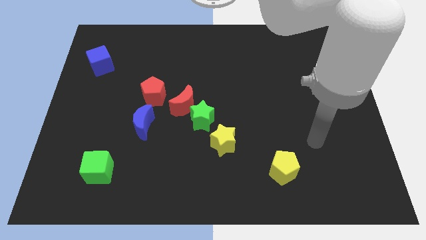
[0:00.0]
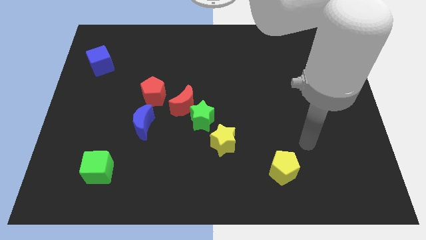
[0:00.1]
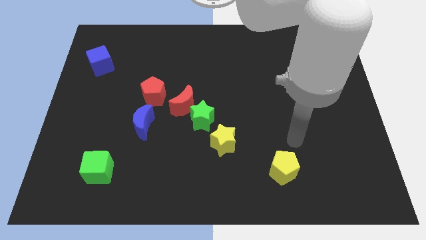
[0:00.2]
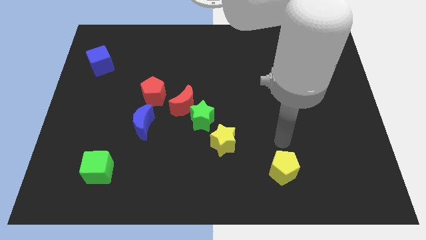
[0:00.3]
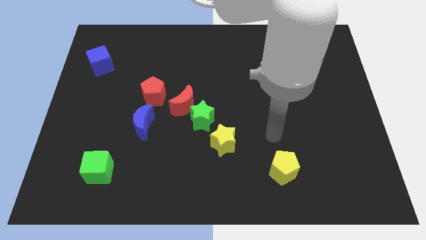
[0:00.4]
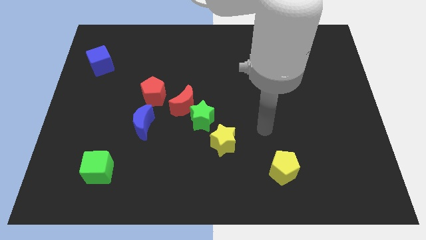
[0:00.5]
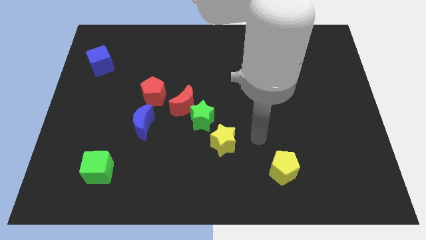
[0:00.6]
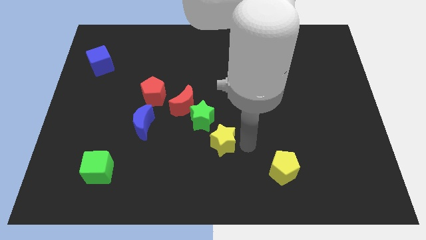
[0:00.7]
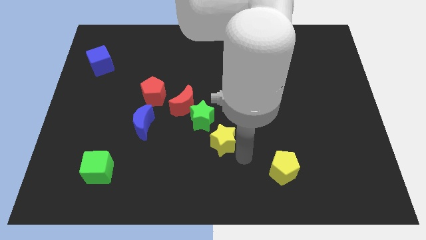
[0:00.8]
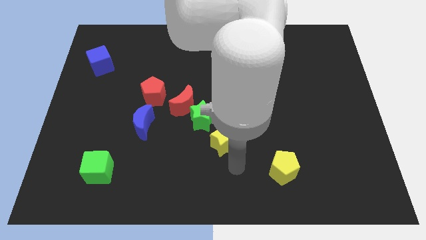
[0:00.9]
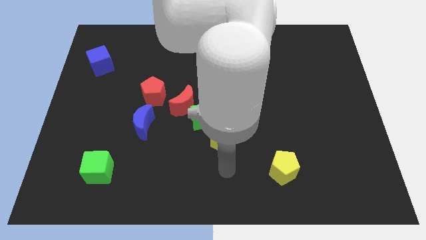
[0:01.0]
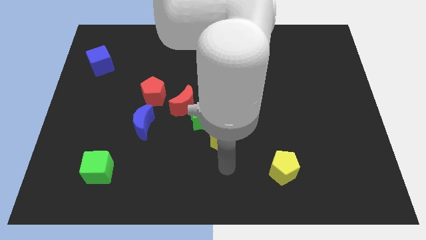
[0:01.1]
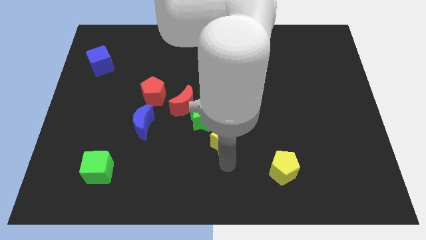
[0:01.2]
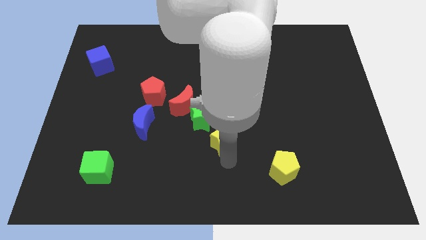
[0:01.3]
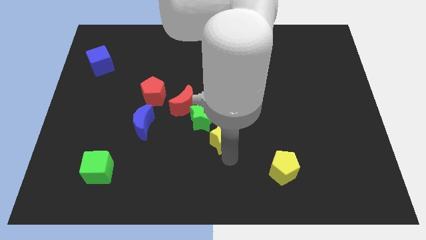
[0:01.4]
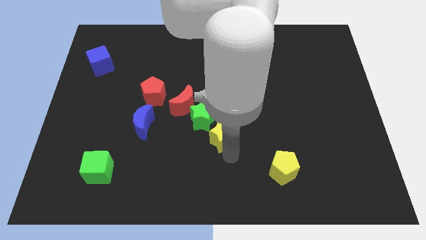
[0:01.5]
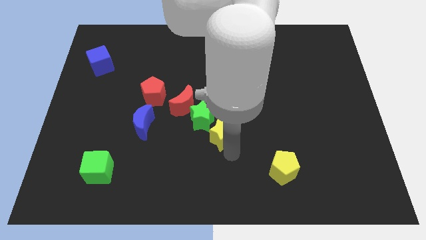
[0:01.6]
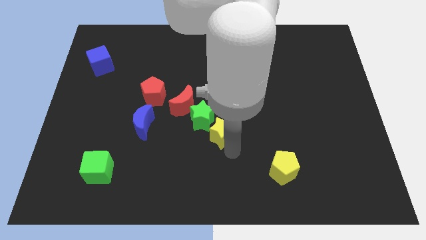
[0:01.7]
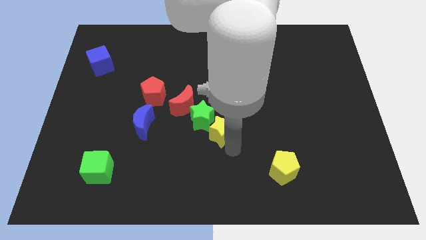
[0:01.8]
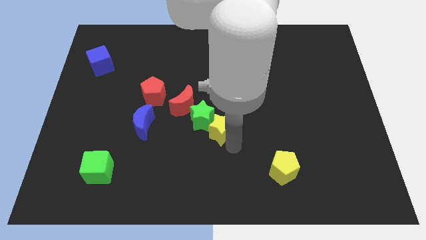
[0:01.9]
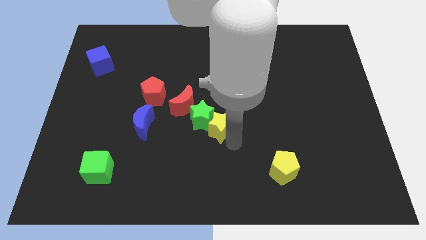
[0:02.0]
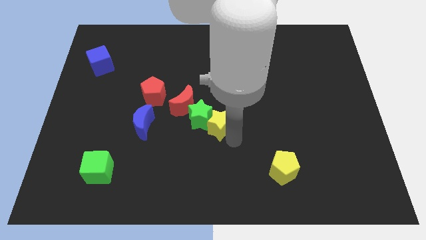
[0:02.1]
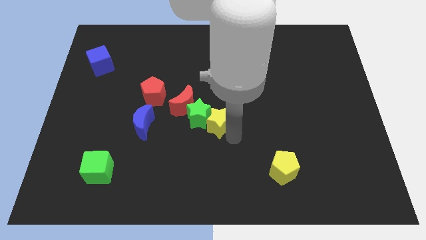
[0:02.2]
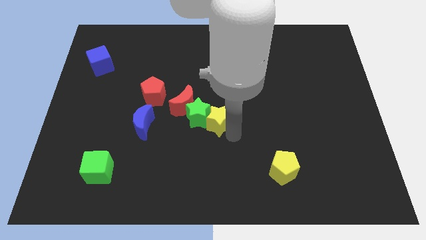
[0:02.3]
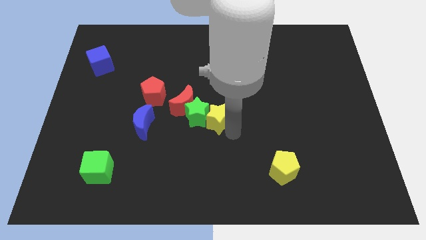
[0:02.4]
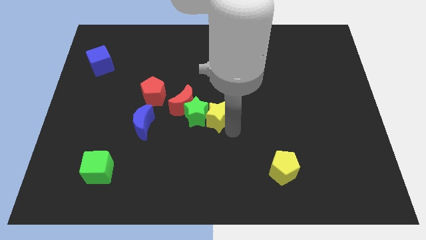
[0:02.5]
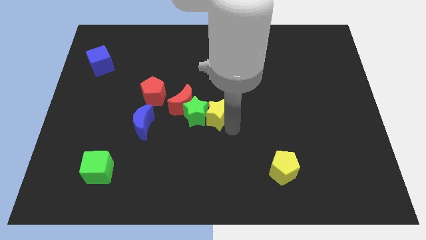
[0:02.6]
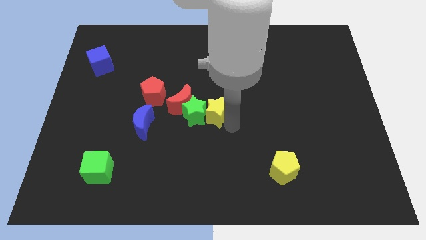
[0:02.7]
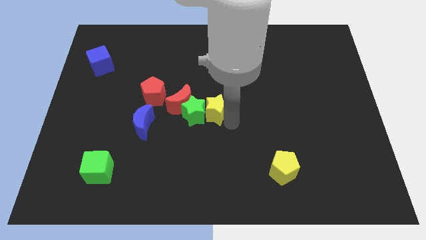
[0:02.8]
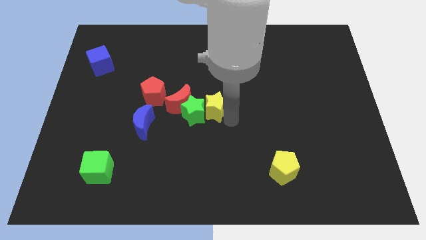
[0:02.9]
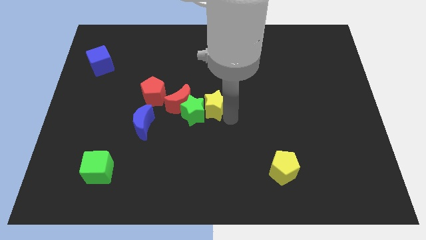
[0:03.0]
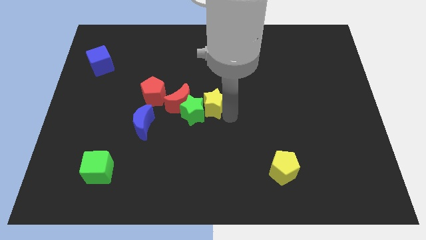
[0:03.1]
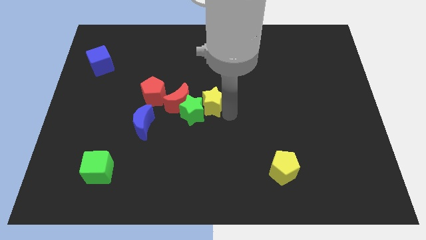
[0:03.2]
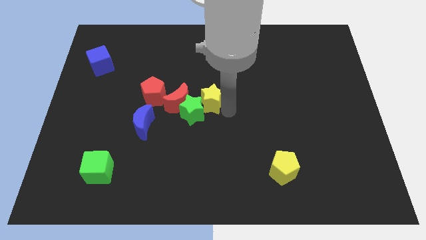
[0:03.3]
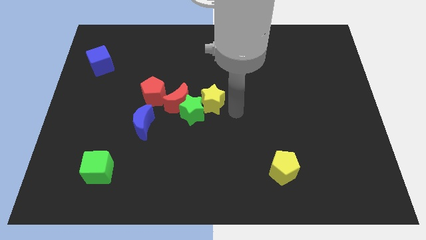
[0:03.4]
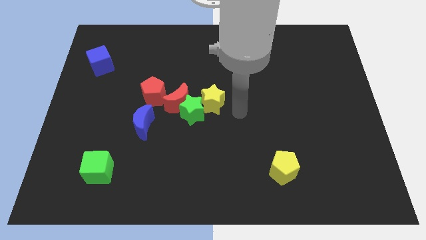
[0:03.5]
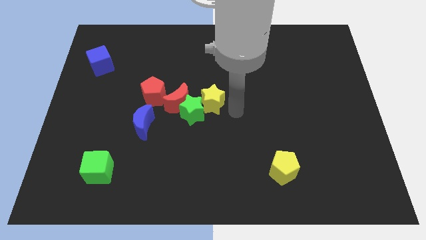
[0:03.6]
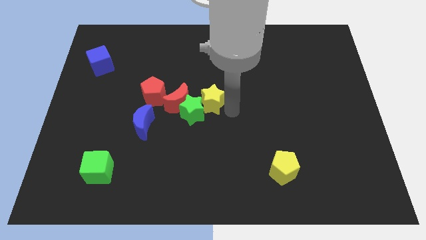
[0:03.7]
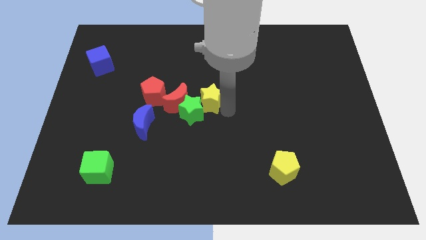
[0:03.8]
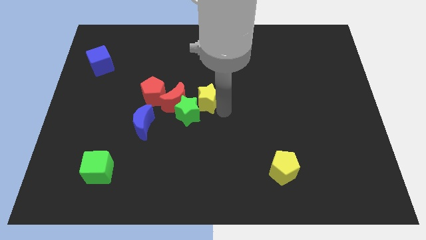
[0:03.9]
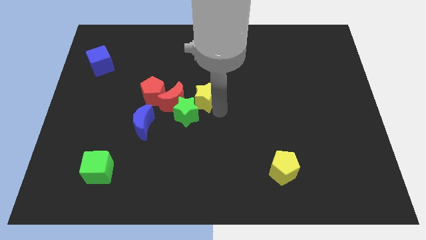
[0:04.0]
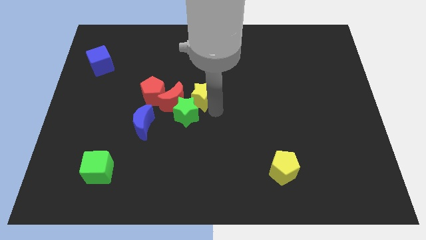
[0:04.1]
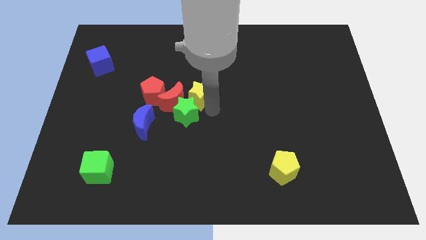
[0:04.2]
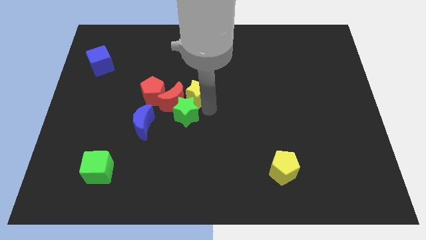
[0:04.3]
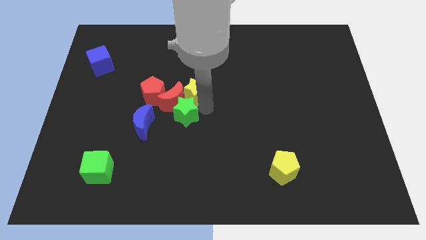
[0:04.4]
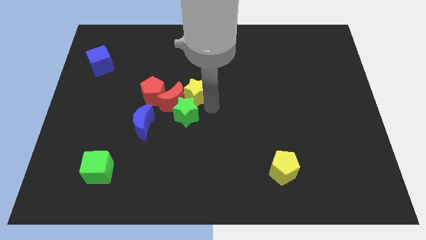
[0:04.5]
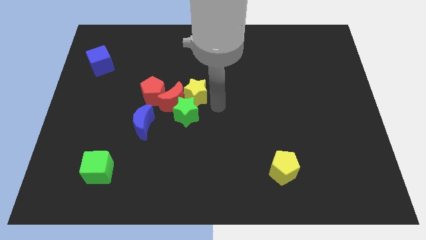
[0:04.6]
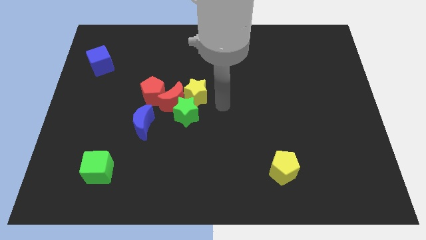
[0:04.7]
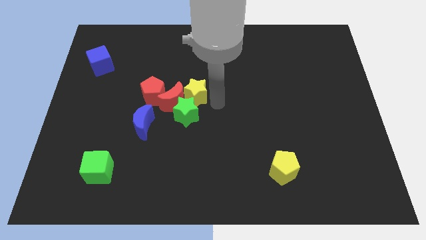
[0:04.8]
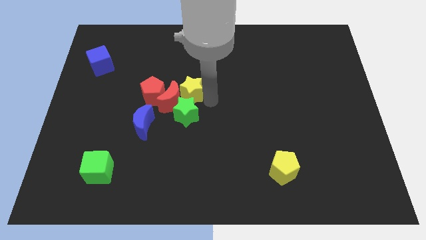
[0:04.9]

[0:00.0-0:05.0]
slide the yellow star diagonally up and to the left of the green star

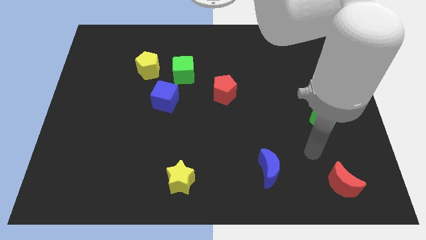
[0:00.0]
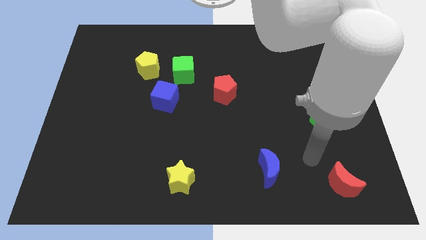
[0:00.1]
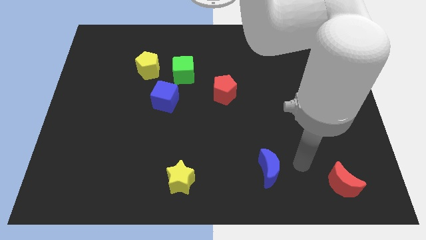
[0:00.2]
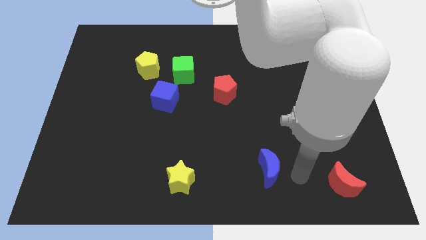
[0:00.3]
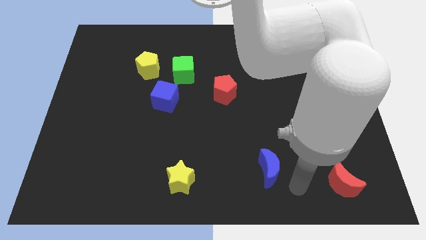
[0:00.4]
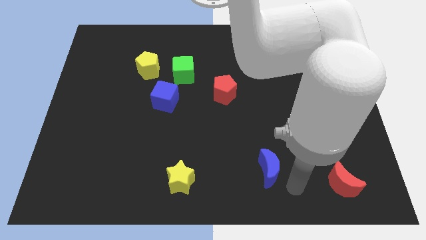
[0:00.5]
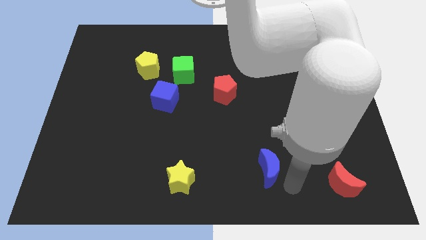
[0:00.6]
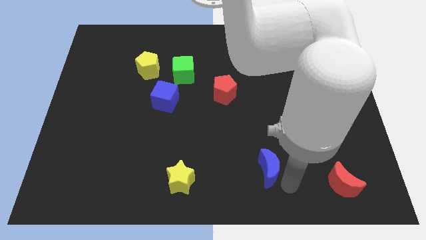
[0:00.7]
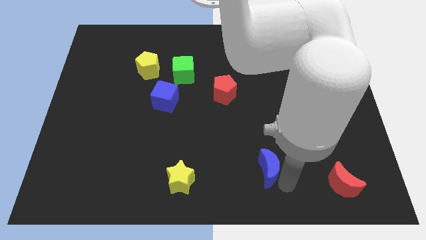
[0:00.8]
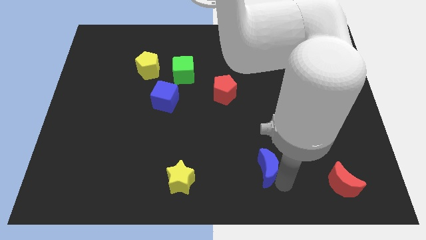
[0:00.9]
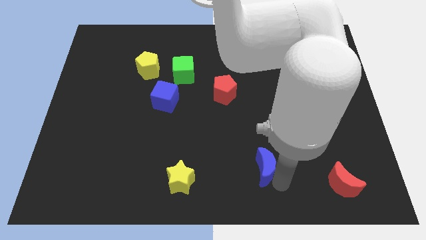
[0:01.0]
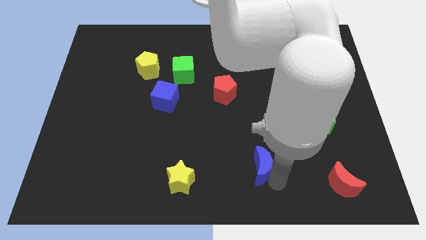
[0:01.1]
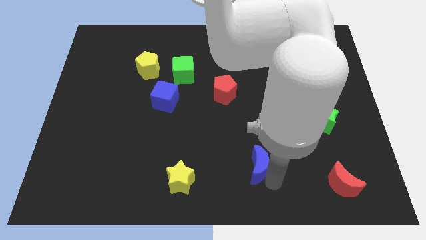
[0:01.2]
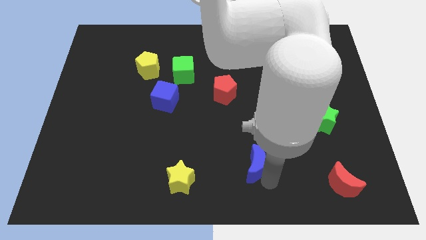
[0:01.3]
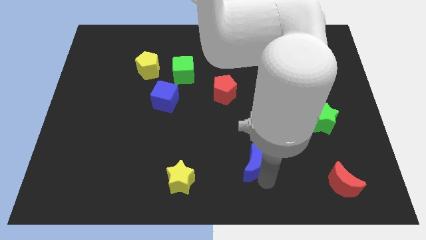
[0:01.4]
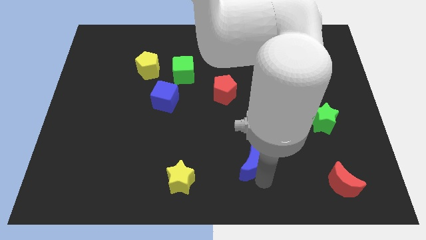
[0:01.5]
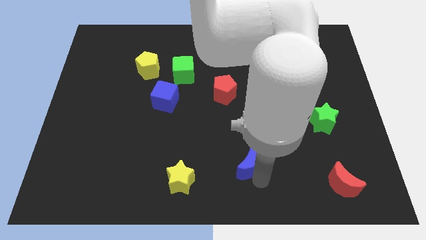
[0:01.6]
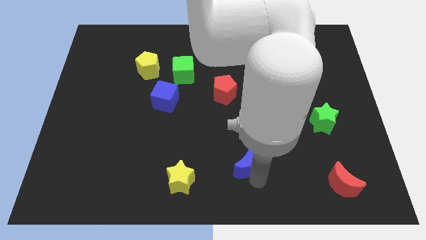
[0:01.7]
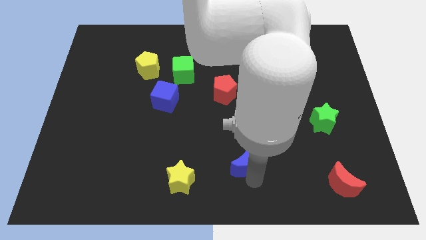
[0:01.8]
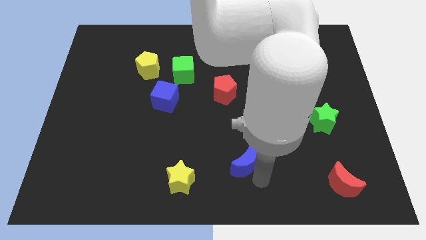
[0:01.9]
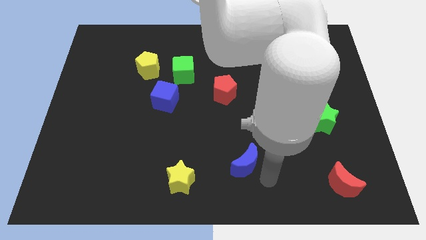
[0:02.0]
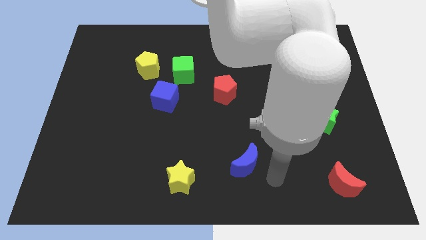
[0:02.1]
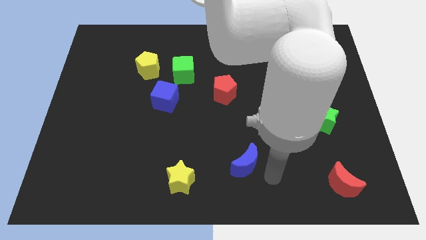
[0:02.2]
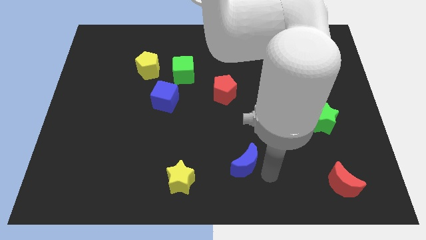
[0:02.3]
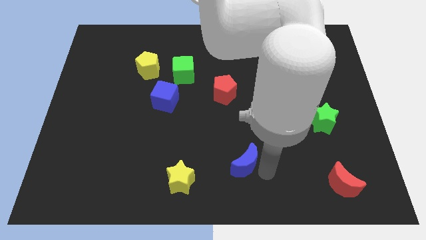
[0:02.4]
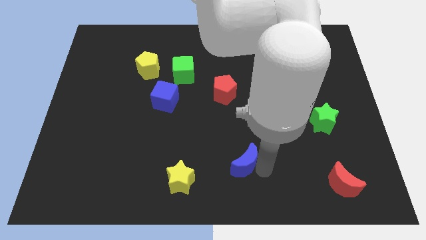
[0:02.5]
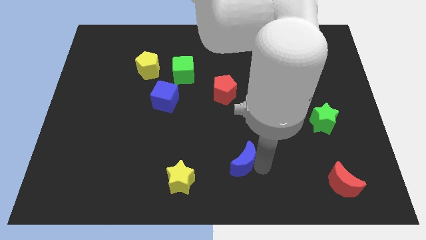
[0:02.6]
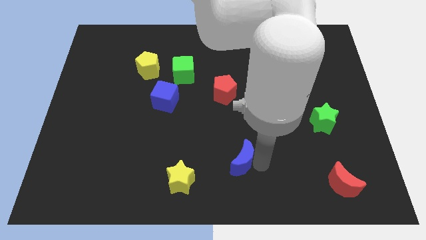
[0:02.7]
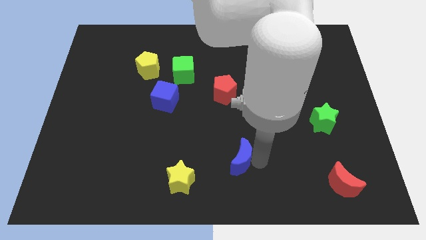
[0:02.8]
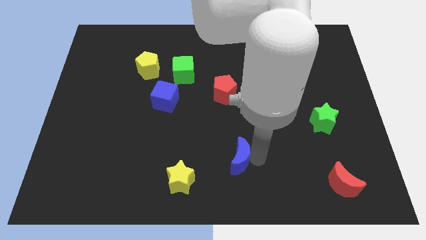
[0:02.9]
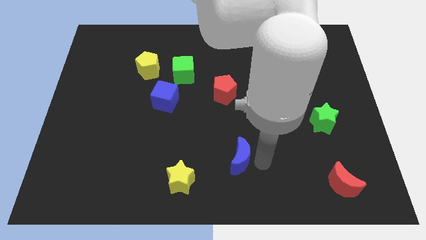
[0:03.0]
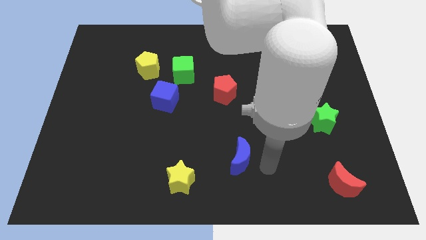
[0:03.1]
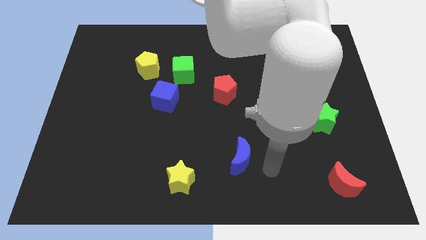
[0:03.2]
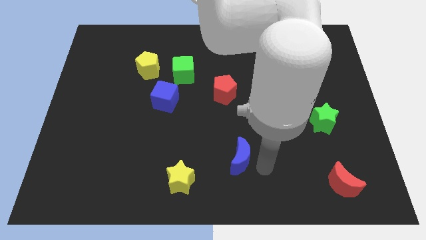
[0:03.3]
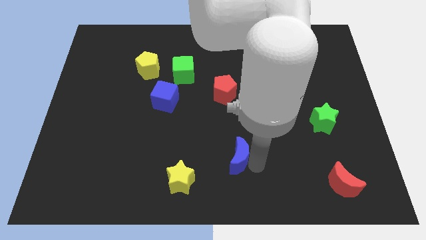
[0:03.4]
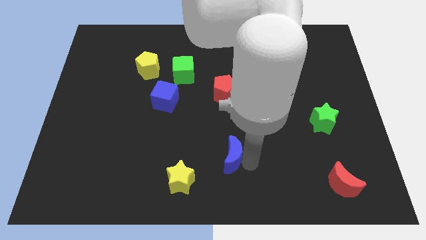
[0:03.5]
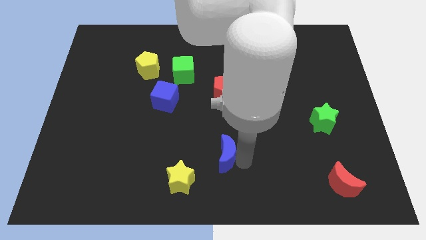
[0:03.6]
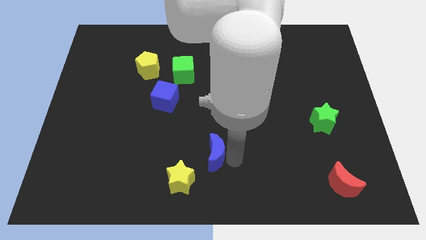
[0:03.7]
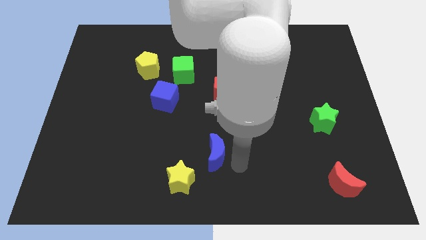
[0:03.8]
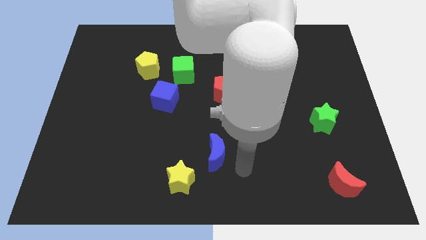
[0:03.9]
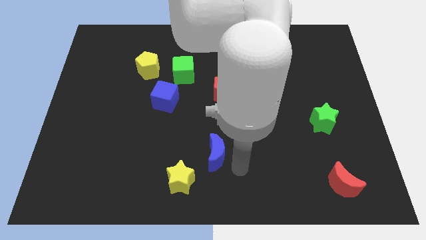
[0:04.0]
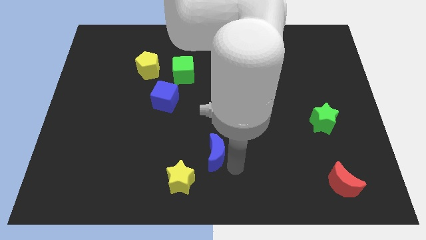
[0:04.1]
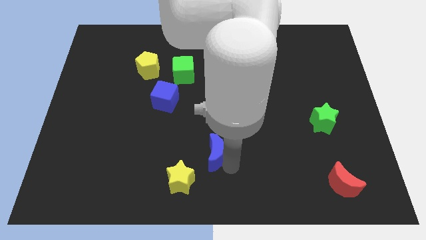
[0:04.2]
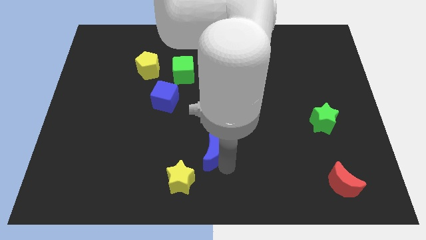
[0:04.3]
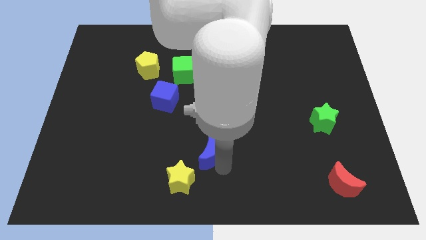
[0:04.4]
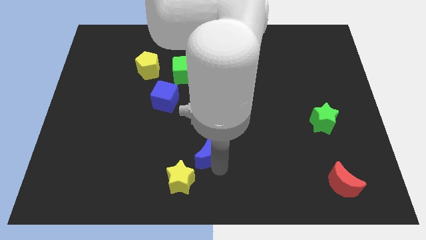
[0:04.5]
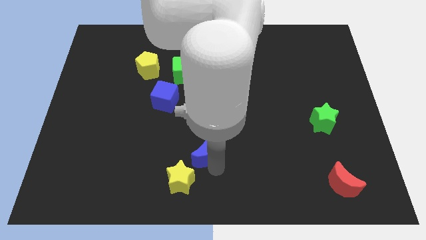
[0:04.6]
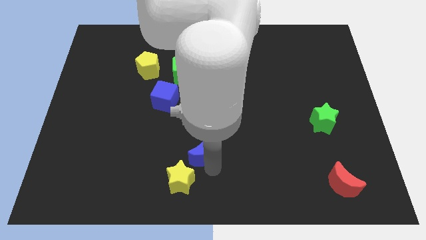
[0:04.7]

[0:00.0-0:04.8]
move the blue moon to the top of the yellow star
